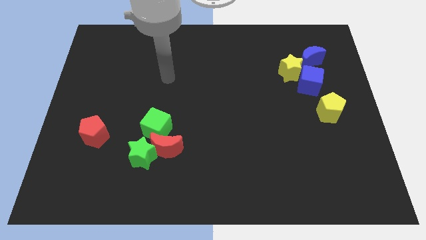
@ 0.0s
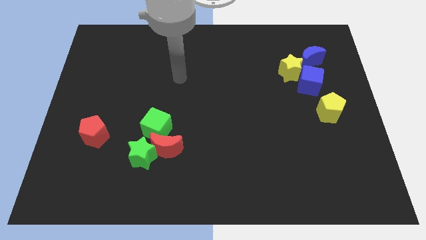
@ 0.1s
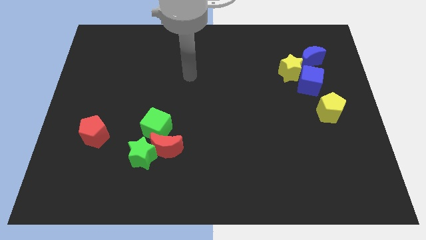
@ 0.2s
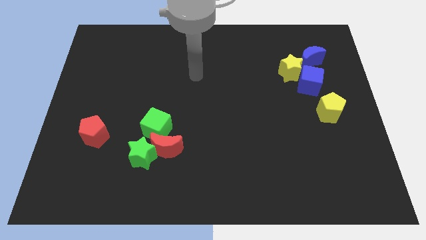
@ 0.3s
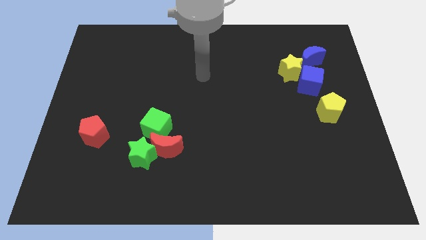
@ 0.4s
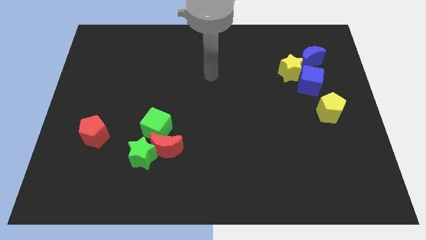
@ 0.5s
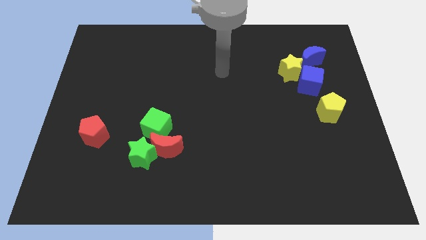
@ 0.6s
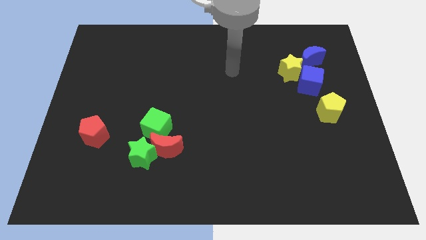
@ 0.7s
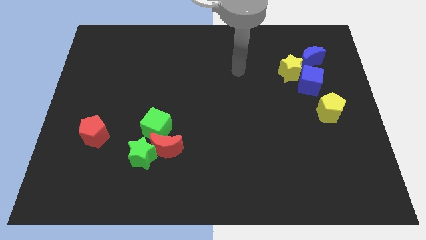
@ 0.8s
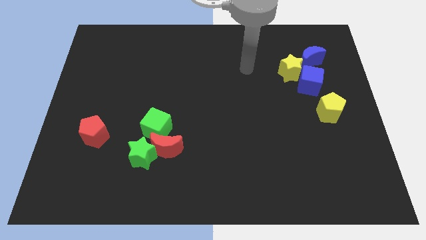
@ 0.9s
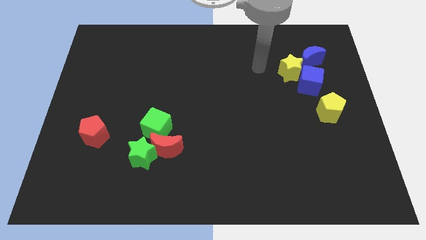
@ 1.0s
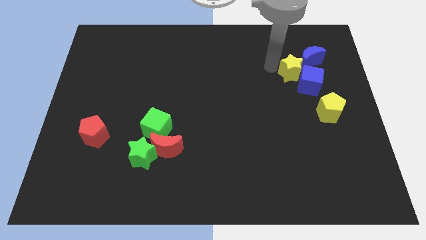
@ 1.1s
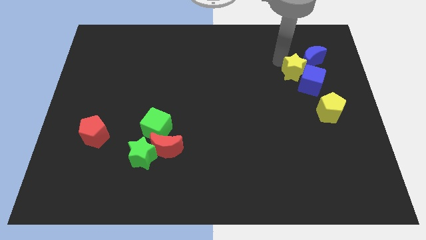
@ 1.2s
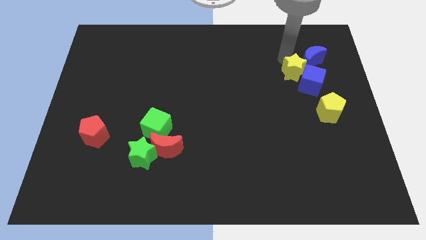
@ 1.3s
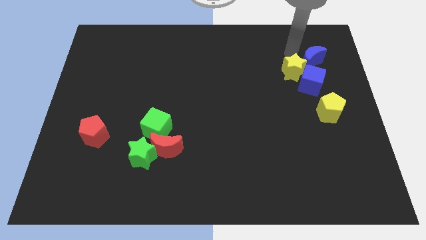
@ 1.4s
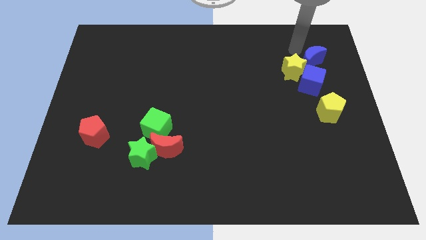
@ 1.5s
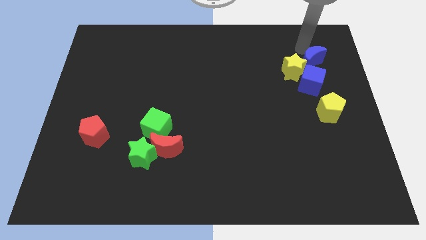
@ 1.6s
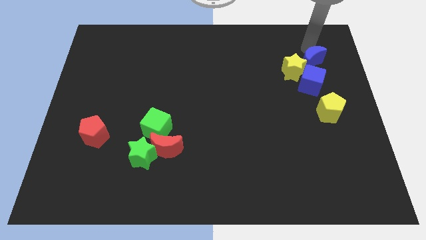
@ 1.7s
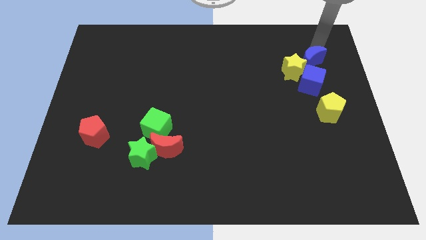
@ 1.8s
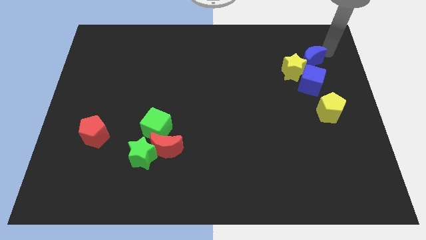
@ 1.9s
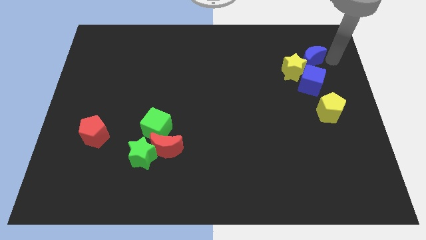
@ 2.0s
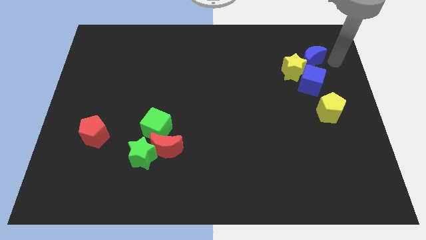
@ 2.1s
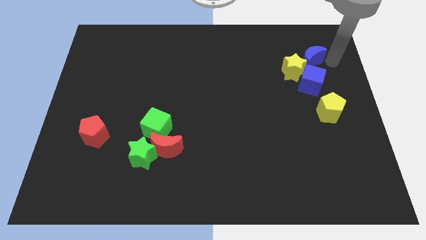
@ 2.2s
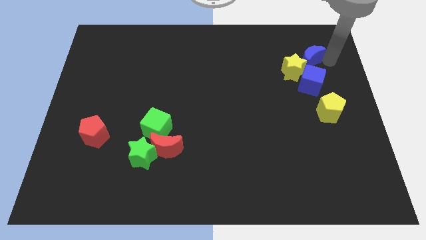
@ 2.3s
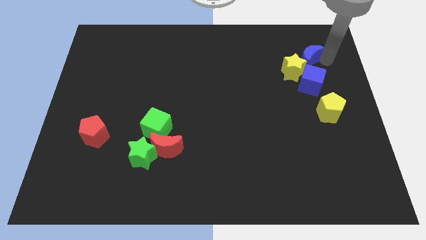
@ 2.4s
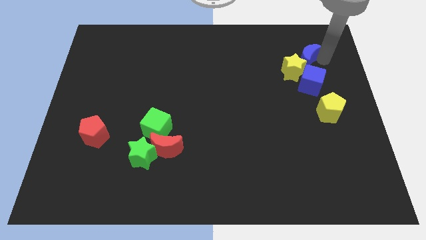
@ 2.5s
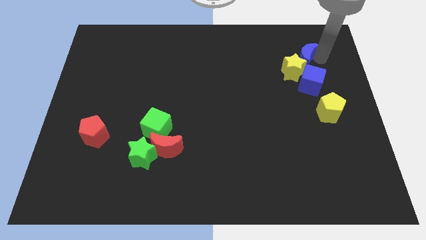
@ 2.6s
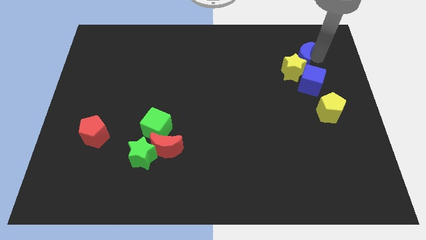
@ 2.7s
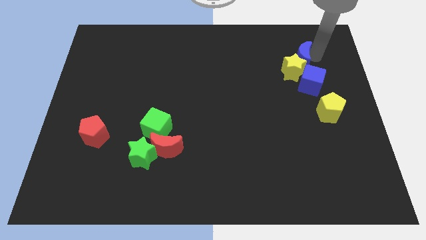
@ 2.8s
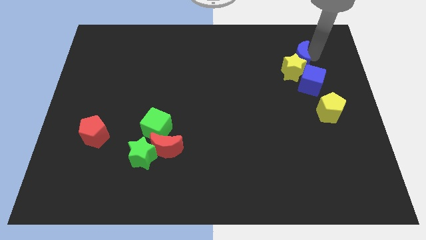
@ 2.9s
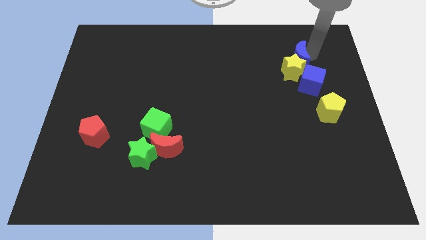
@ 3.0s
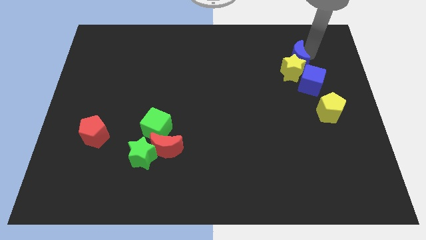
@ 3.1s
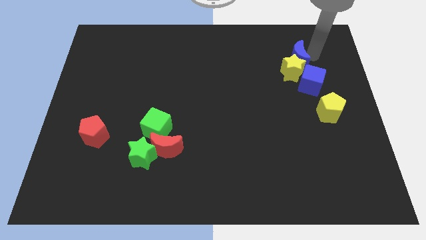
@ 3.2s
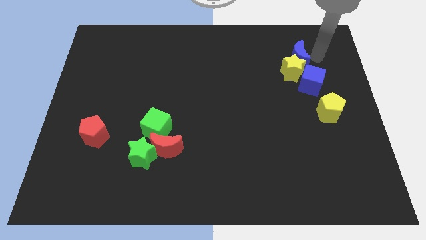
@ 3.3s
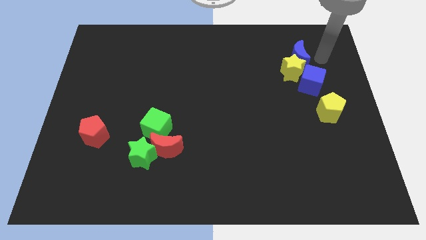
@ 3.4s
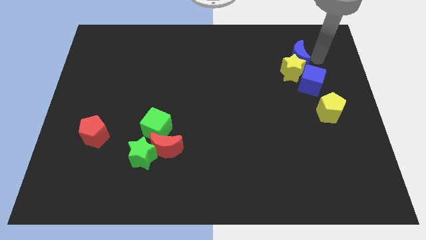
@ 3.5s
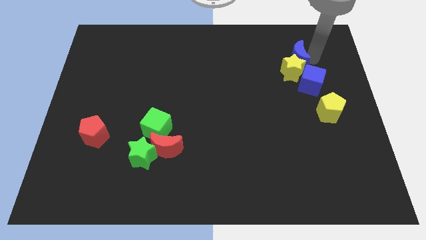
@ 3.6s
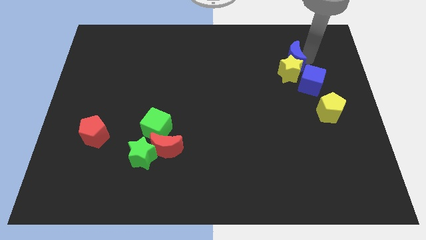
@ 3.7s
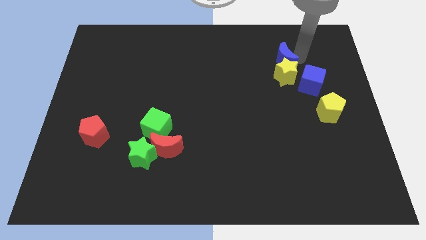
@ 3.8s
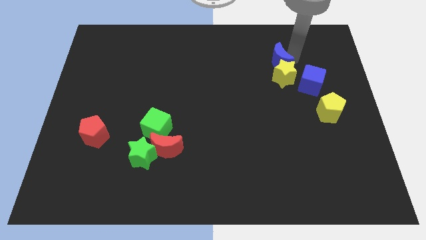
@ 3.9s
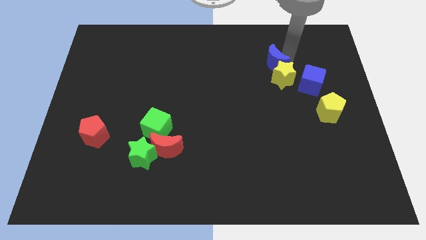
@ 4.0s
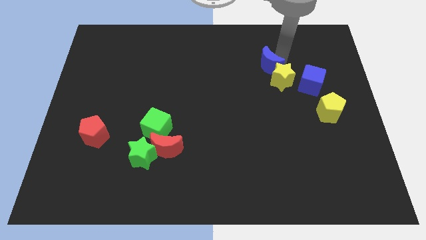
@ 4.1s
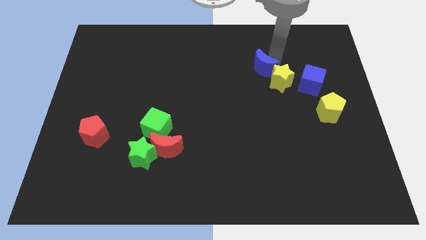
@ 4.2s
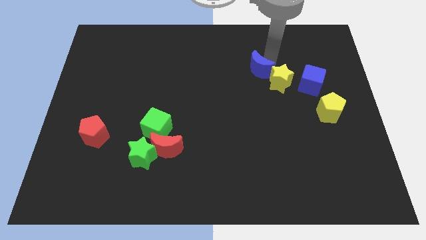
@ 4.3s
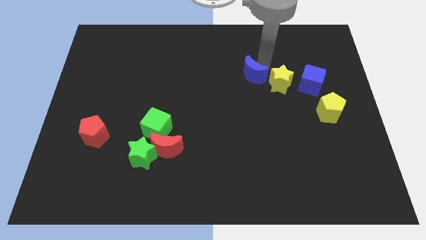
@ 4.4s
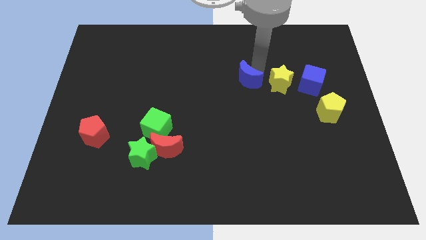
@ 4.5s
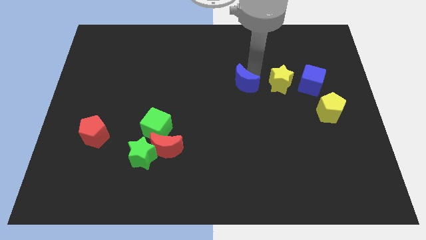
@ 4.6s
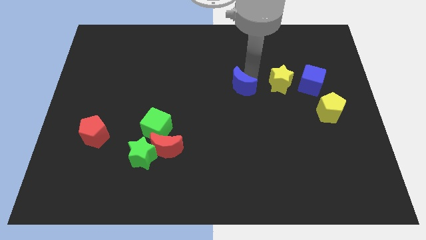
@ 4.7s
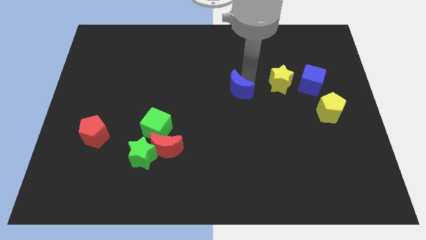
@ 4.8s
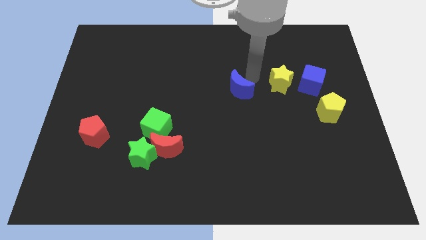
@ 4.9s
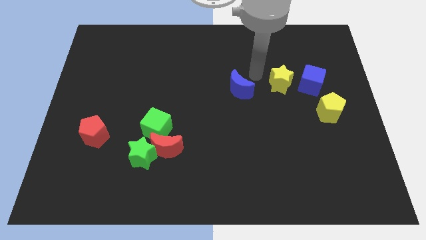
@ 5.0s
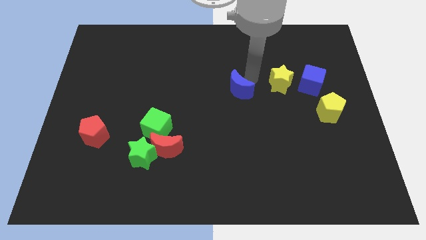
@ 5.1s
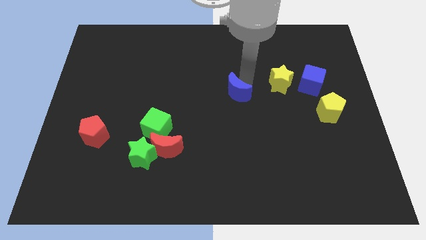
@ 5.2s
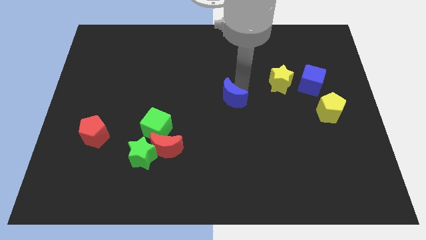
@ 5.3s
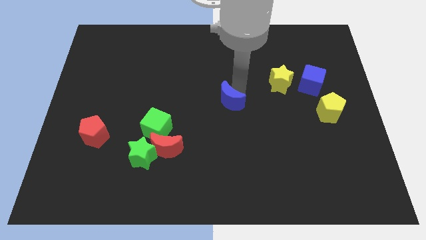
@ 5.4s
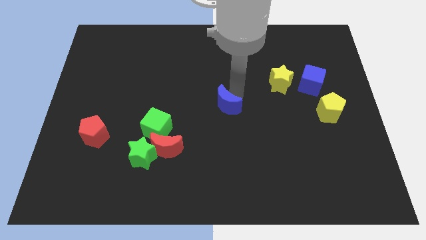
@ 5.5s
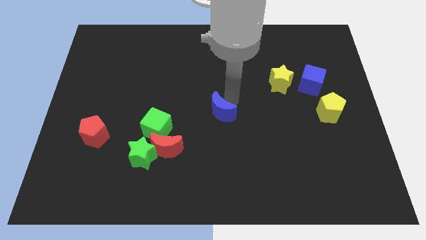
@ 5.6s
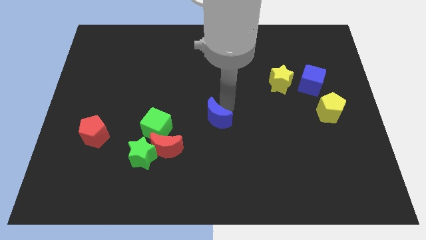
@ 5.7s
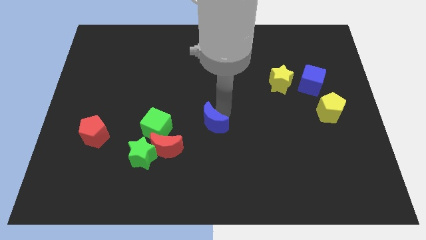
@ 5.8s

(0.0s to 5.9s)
push the blue moon diagonally up and to the right of the red moon
